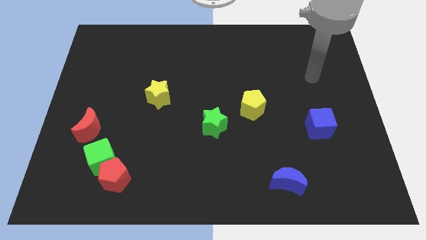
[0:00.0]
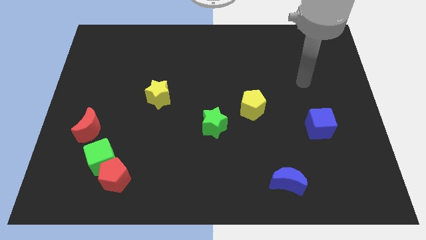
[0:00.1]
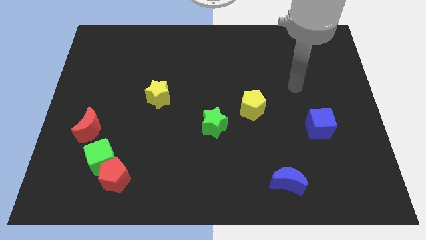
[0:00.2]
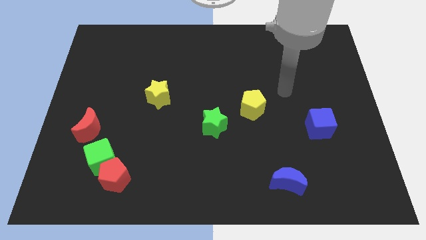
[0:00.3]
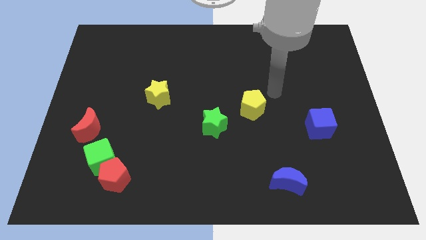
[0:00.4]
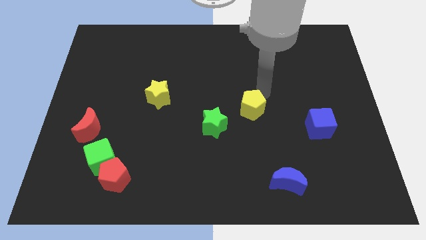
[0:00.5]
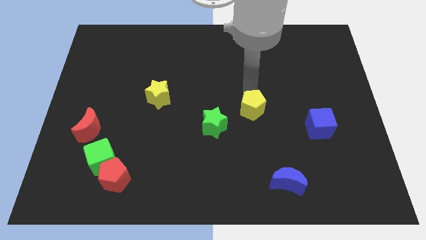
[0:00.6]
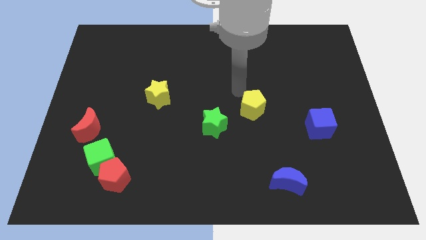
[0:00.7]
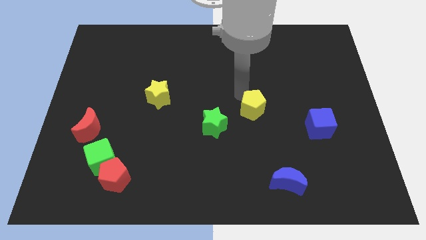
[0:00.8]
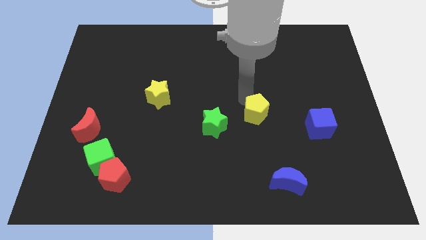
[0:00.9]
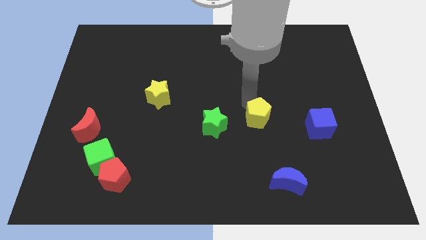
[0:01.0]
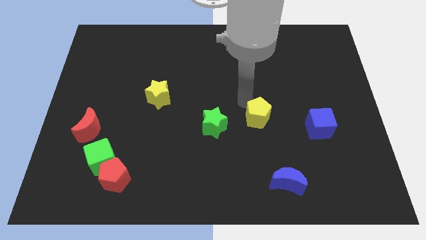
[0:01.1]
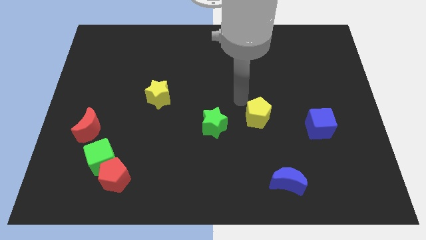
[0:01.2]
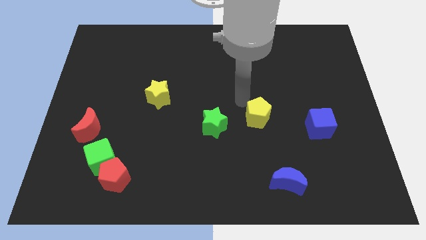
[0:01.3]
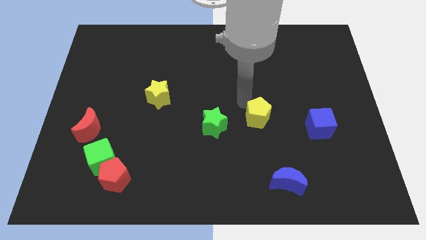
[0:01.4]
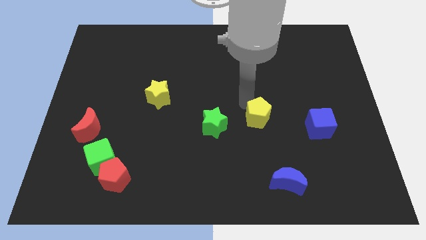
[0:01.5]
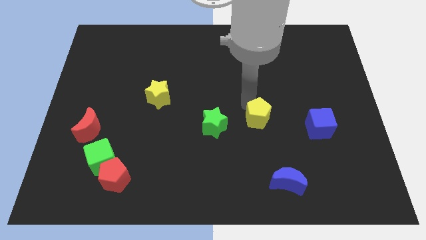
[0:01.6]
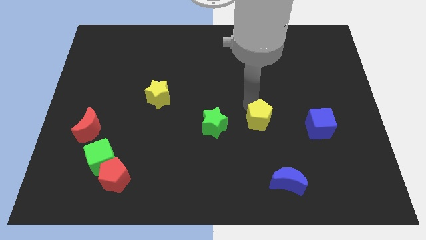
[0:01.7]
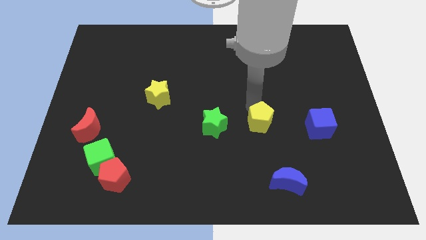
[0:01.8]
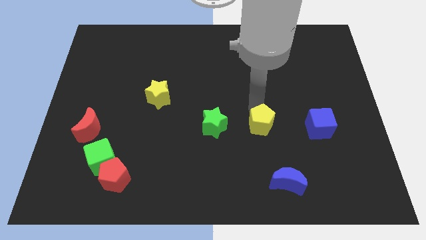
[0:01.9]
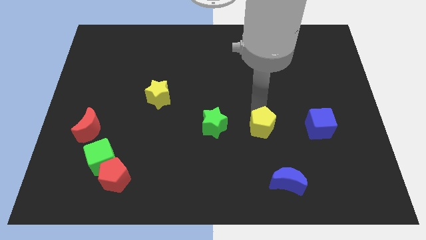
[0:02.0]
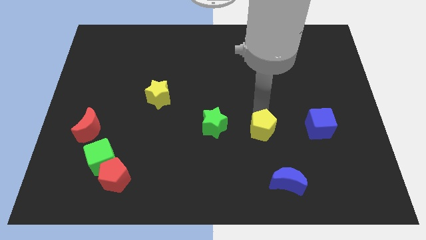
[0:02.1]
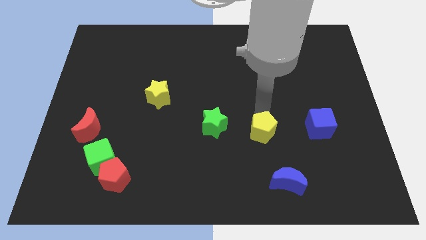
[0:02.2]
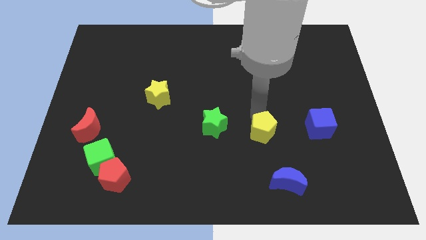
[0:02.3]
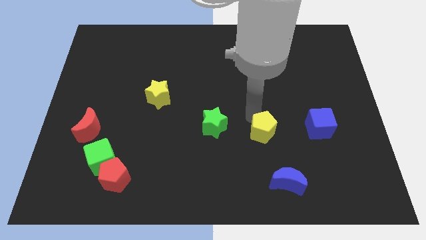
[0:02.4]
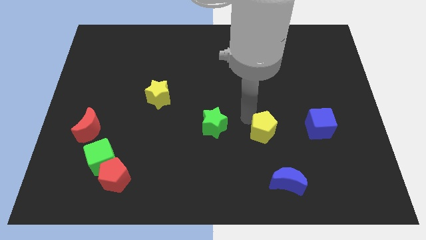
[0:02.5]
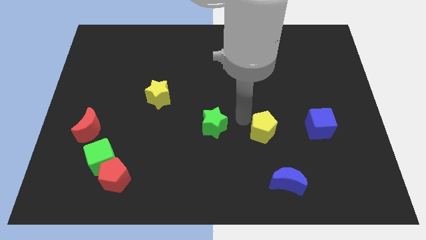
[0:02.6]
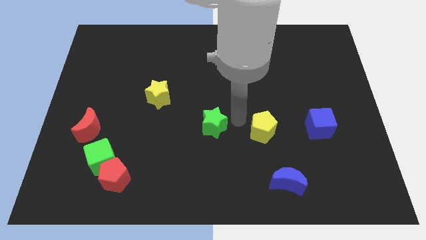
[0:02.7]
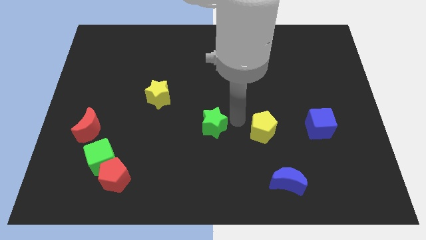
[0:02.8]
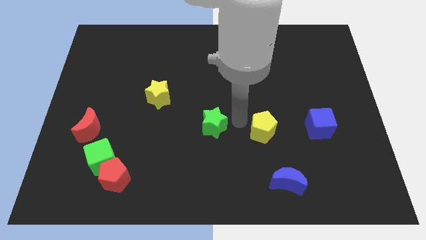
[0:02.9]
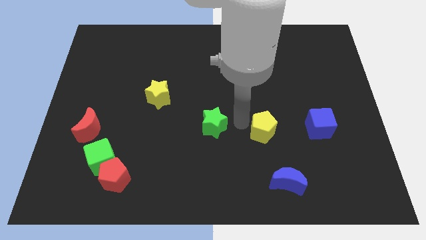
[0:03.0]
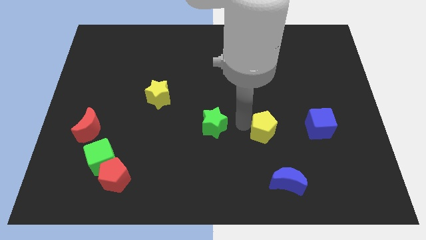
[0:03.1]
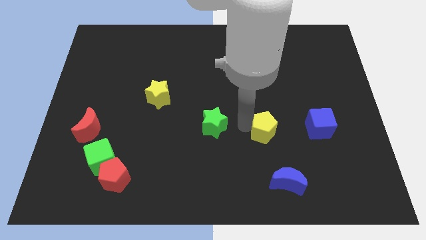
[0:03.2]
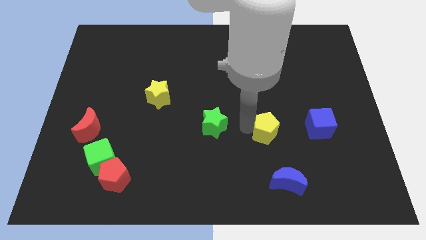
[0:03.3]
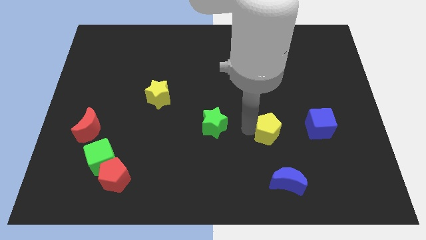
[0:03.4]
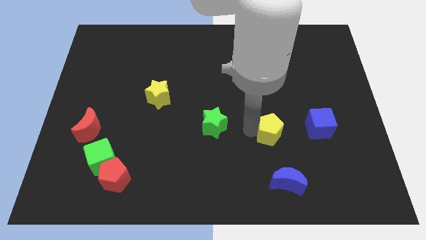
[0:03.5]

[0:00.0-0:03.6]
slide the yellow pentagon a little down and then right

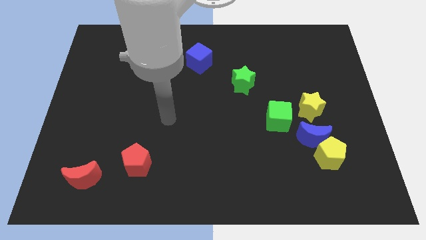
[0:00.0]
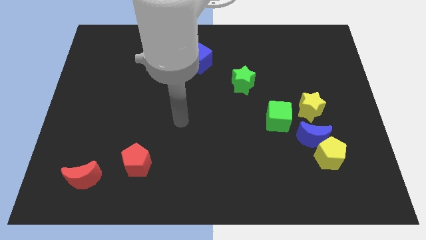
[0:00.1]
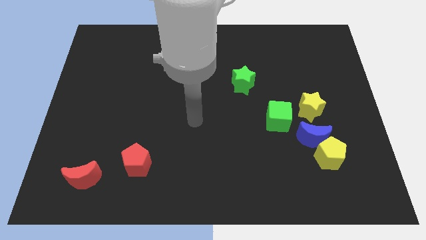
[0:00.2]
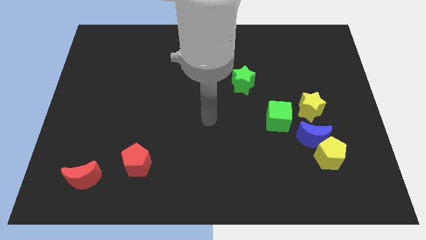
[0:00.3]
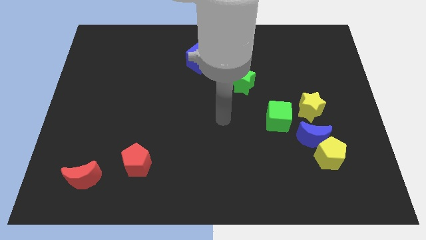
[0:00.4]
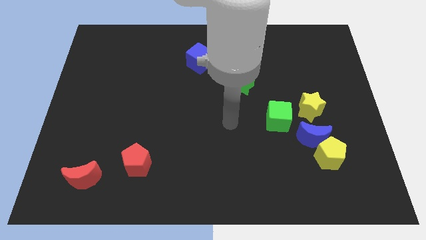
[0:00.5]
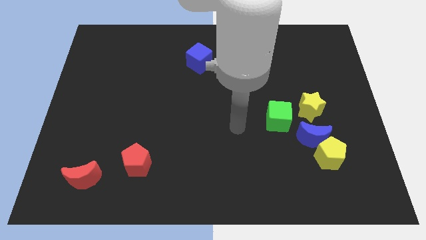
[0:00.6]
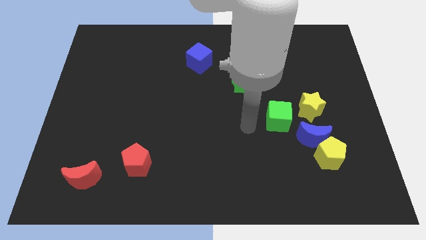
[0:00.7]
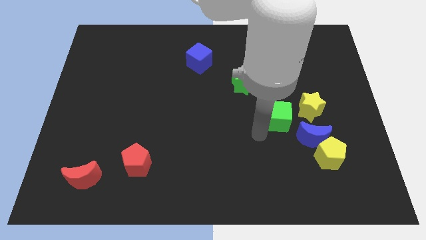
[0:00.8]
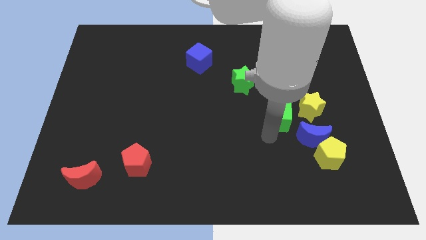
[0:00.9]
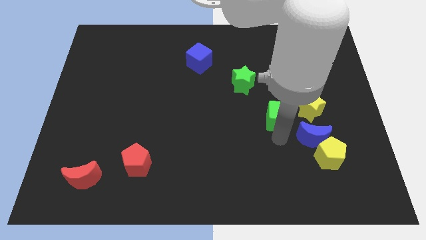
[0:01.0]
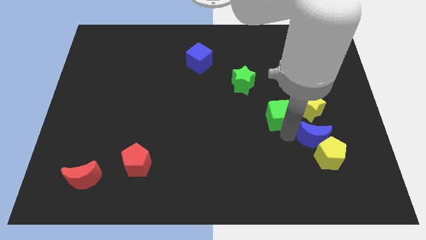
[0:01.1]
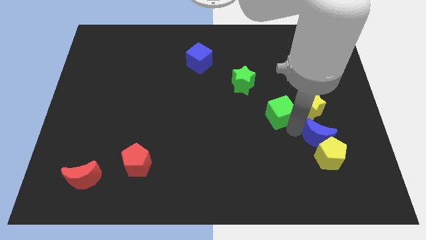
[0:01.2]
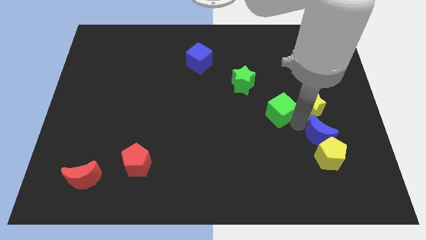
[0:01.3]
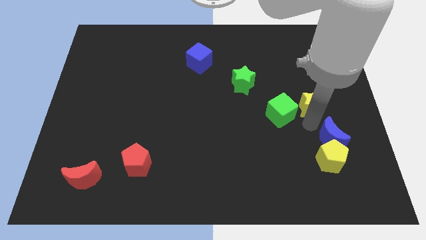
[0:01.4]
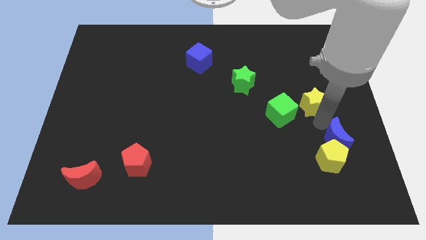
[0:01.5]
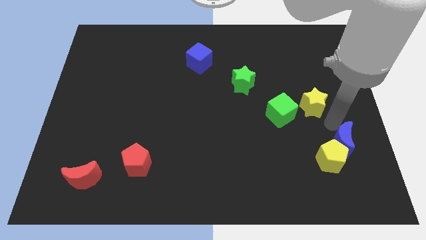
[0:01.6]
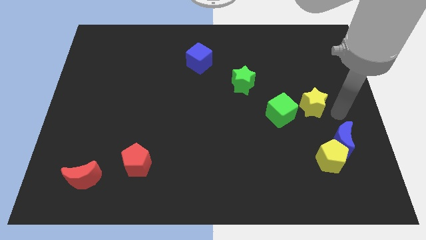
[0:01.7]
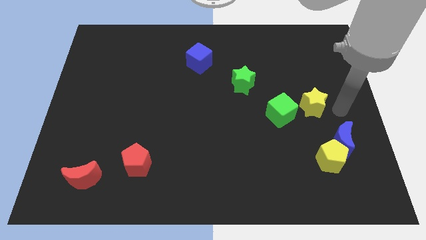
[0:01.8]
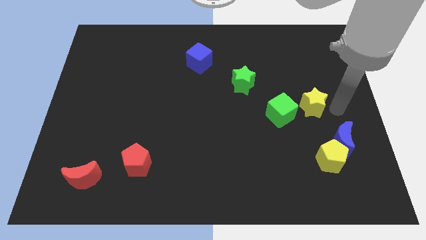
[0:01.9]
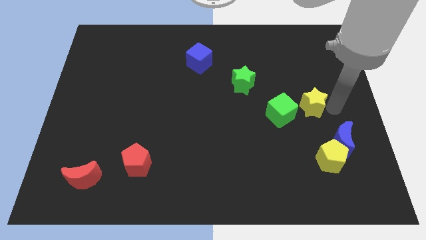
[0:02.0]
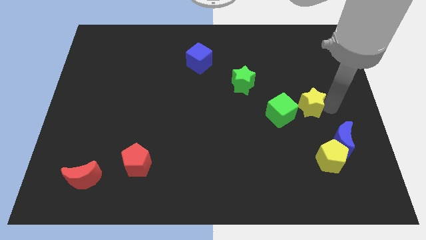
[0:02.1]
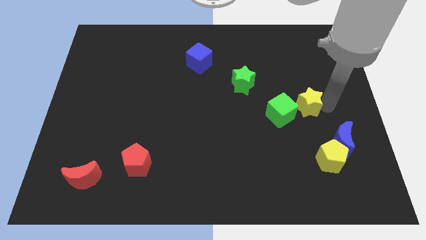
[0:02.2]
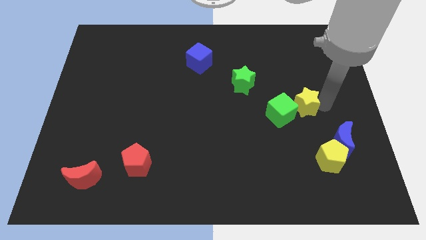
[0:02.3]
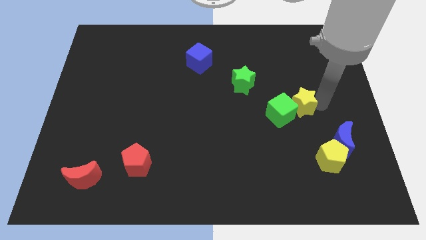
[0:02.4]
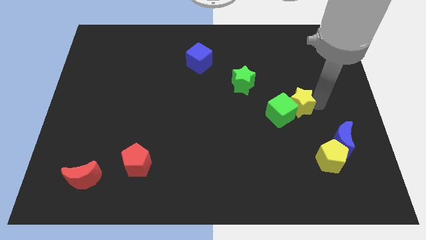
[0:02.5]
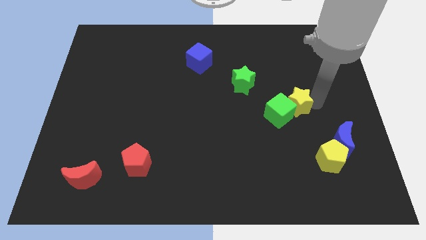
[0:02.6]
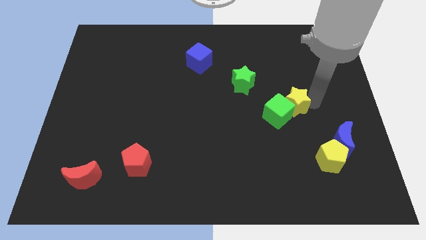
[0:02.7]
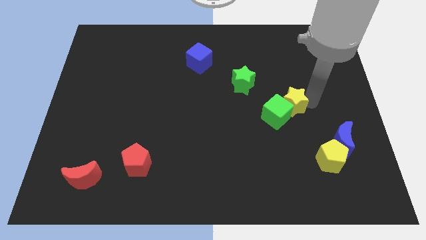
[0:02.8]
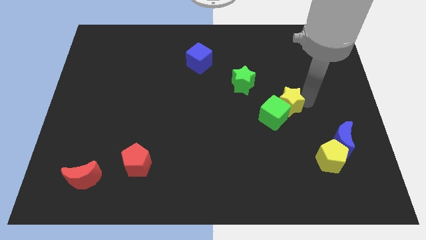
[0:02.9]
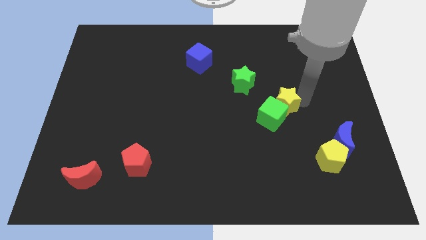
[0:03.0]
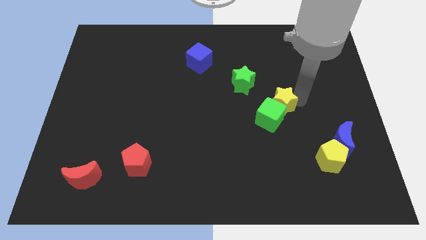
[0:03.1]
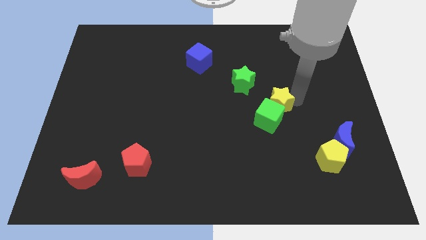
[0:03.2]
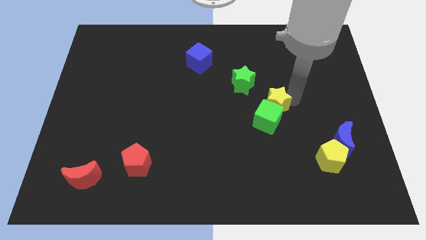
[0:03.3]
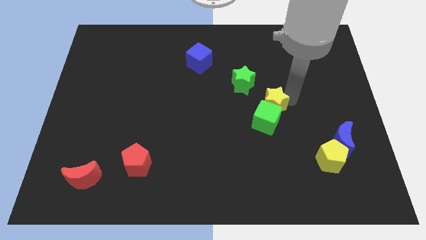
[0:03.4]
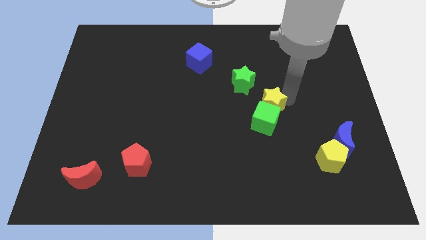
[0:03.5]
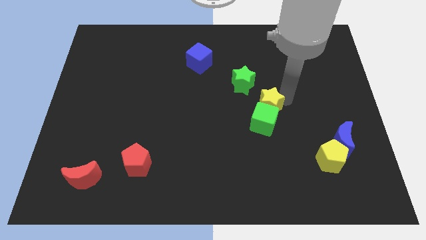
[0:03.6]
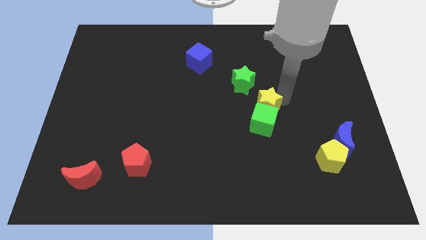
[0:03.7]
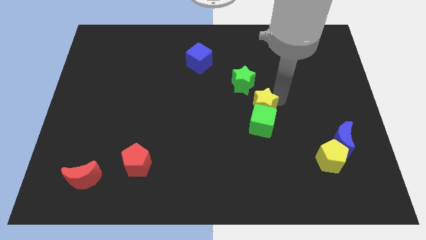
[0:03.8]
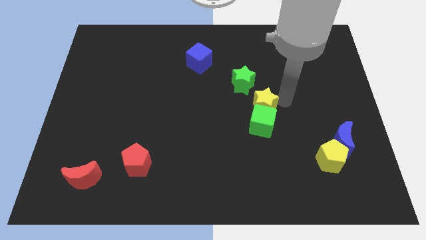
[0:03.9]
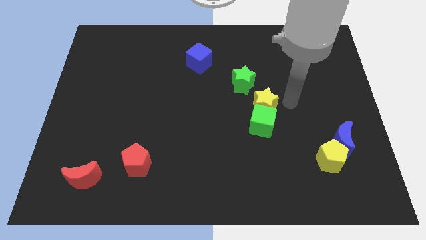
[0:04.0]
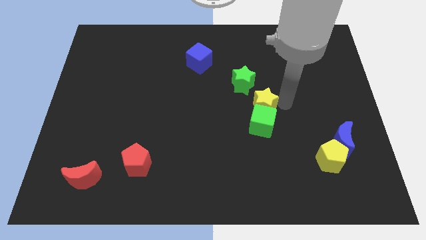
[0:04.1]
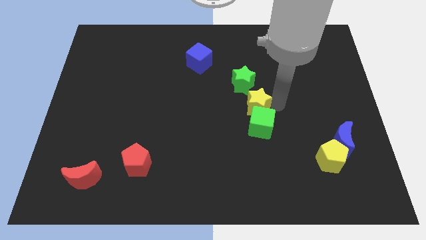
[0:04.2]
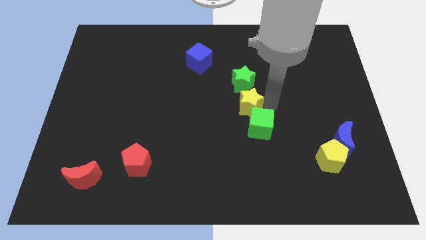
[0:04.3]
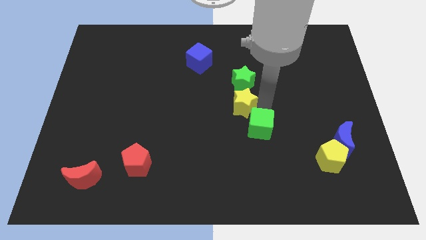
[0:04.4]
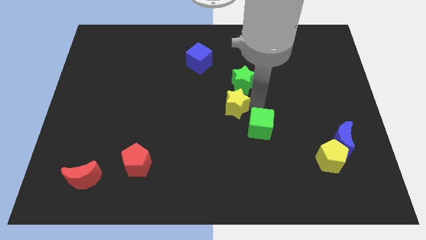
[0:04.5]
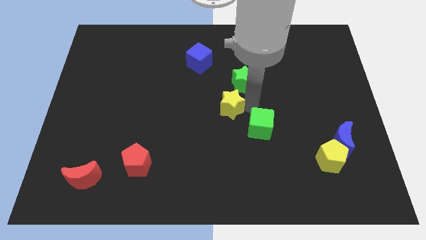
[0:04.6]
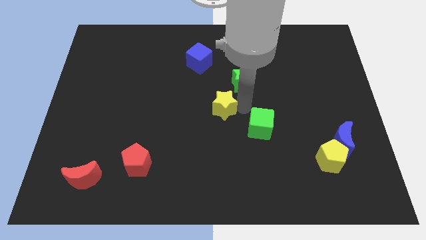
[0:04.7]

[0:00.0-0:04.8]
slide the yellow star left
